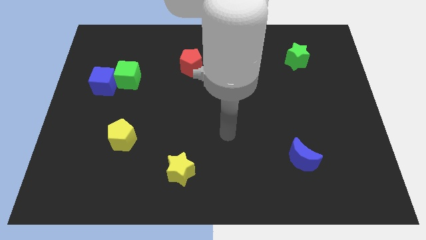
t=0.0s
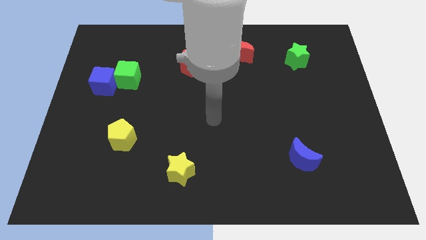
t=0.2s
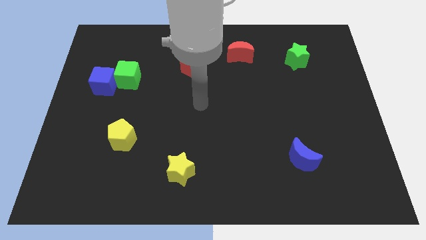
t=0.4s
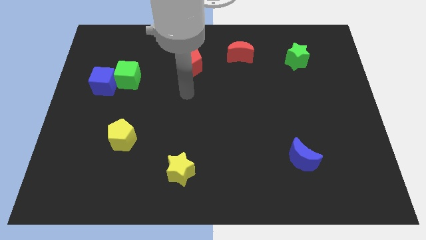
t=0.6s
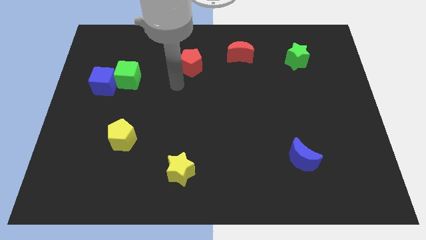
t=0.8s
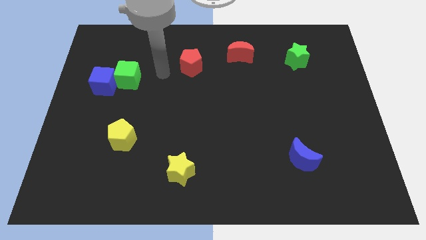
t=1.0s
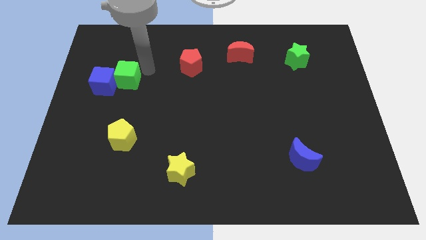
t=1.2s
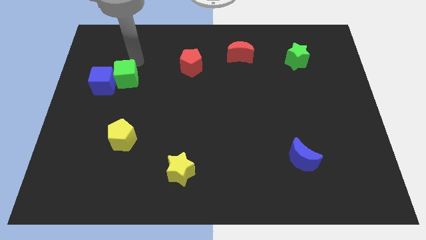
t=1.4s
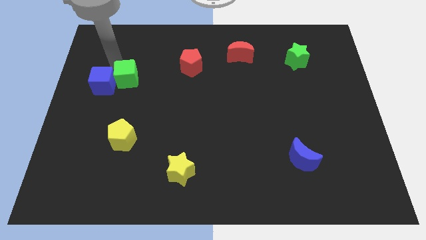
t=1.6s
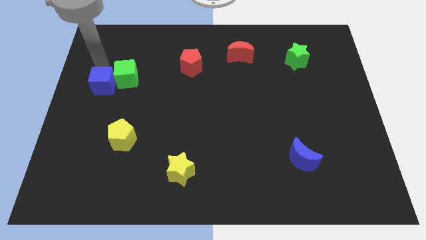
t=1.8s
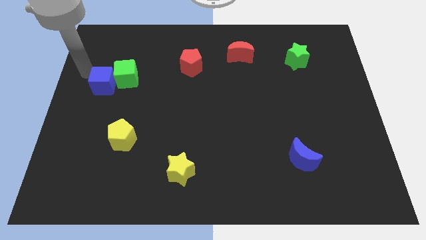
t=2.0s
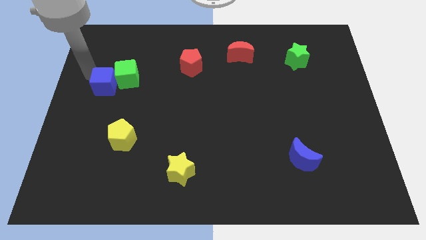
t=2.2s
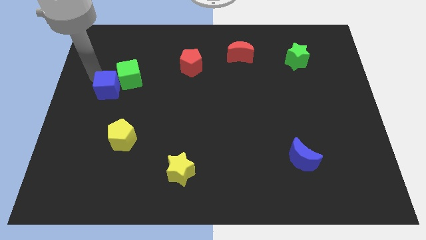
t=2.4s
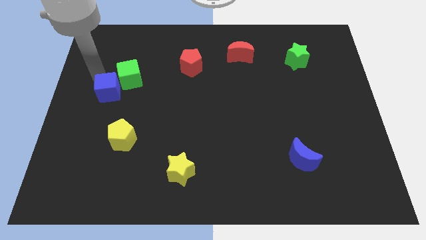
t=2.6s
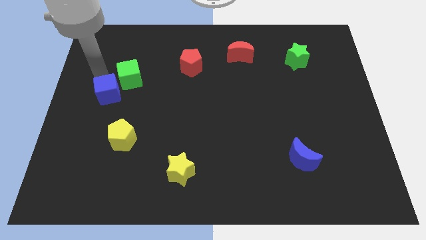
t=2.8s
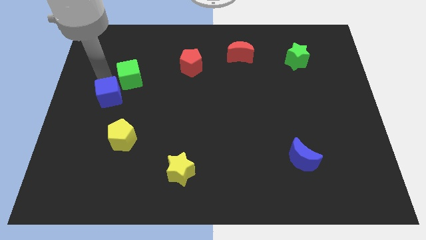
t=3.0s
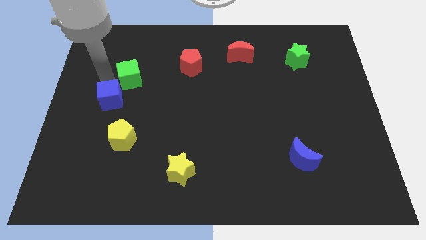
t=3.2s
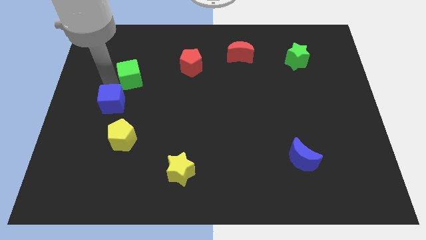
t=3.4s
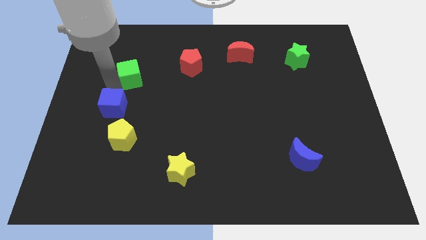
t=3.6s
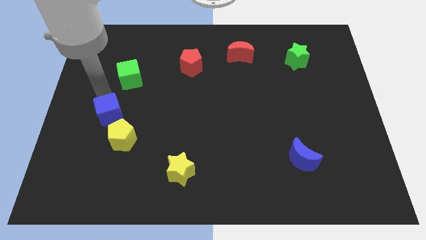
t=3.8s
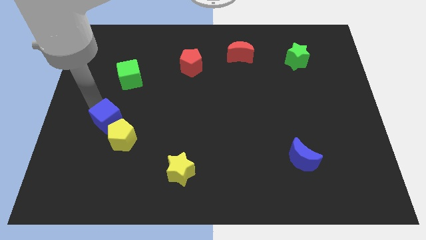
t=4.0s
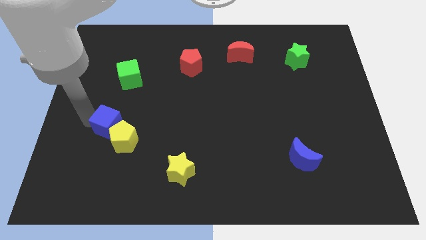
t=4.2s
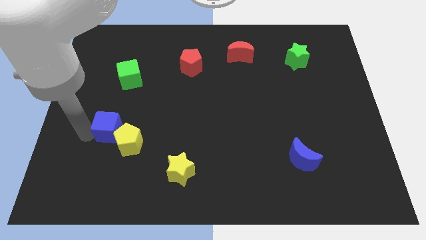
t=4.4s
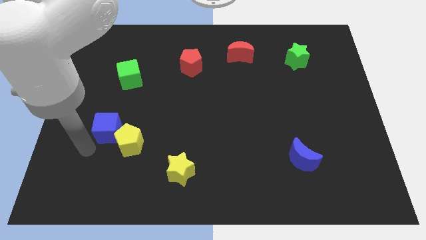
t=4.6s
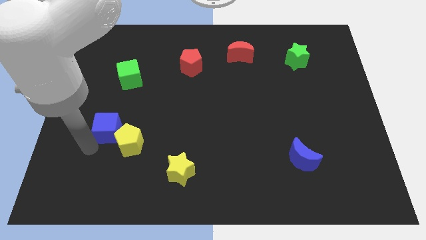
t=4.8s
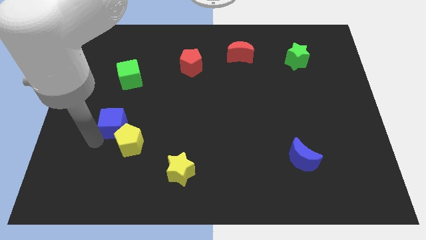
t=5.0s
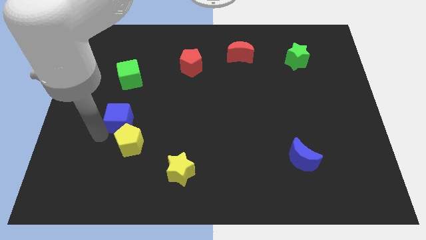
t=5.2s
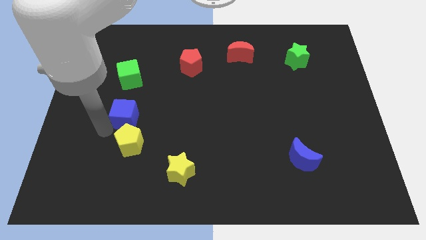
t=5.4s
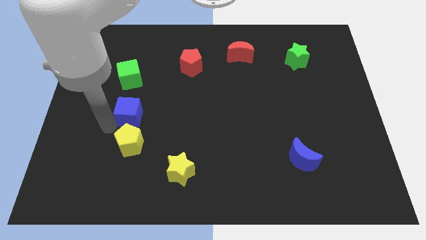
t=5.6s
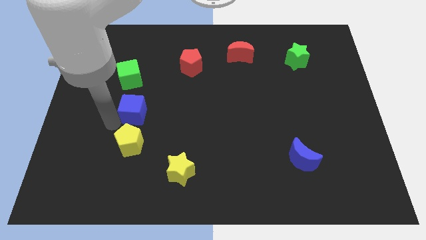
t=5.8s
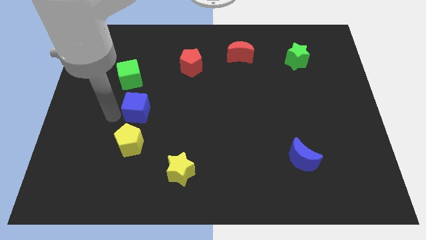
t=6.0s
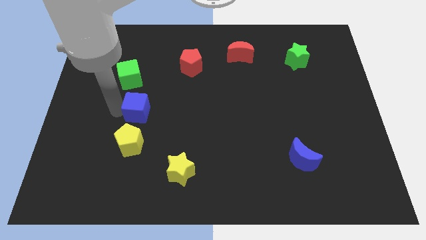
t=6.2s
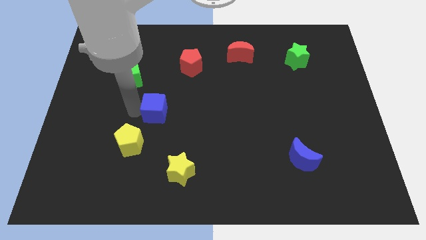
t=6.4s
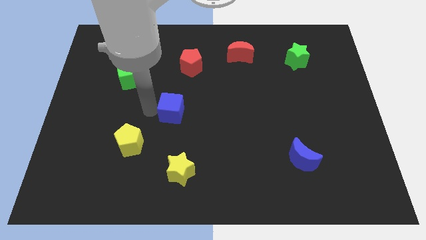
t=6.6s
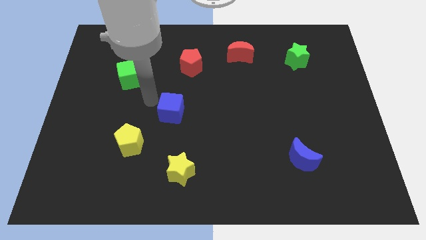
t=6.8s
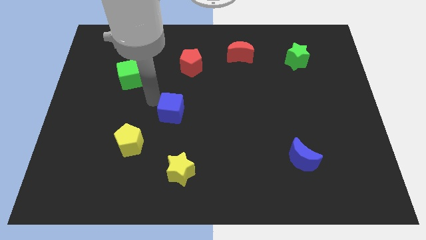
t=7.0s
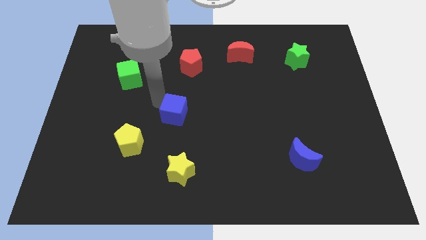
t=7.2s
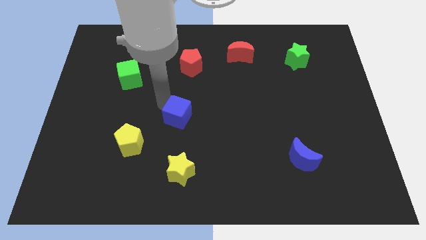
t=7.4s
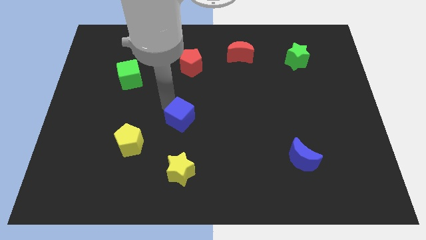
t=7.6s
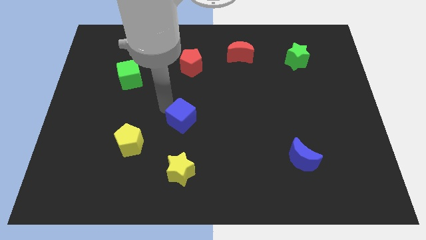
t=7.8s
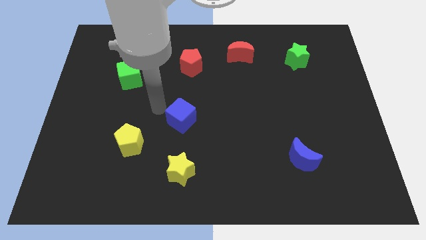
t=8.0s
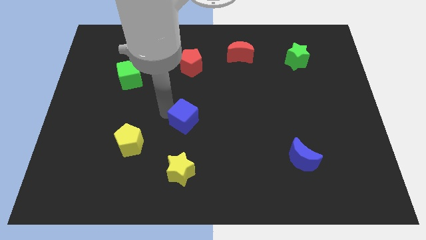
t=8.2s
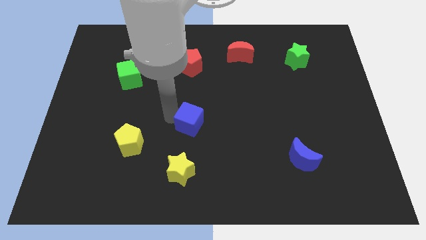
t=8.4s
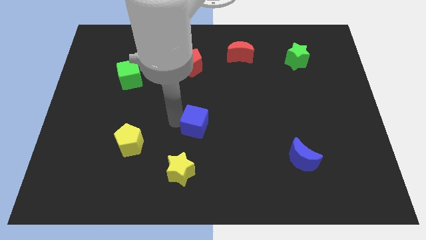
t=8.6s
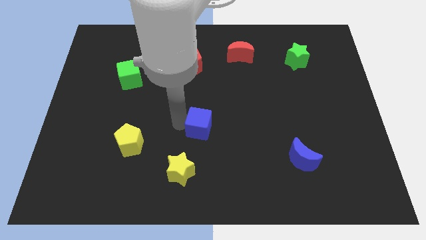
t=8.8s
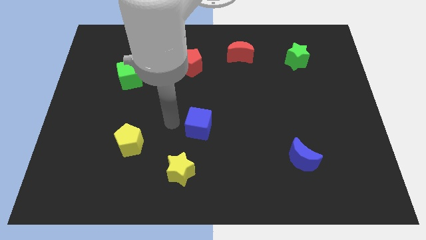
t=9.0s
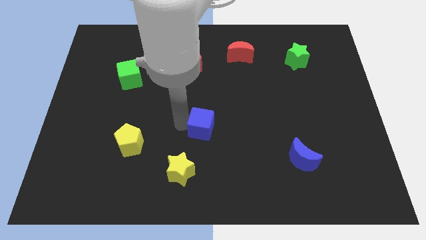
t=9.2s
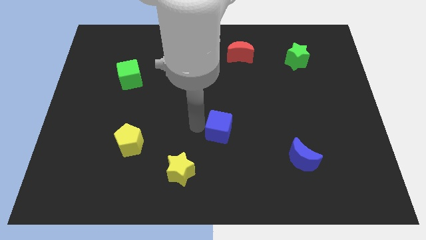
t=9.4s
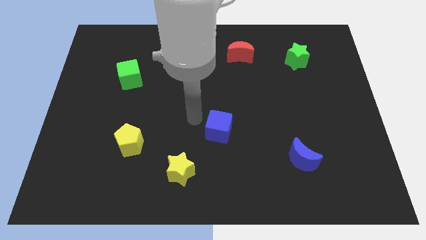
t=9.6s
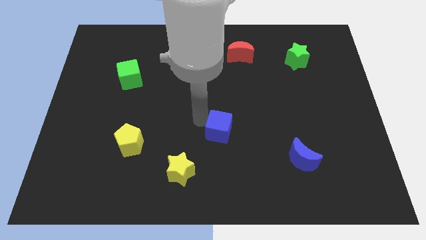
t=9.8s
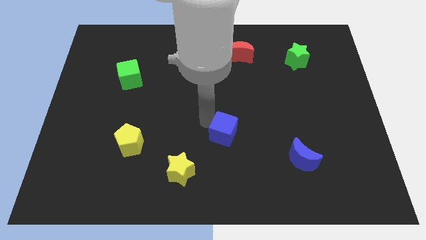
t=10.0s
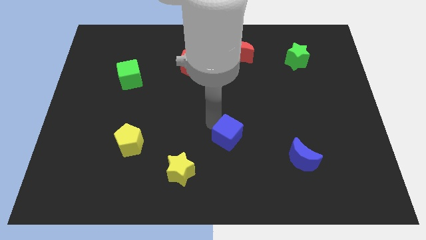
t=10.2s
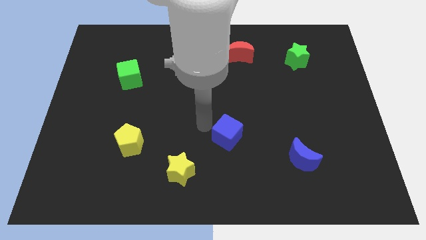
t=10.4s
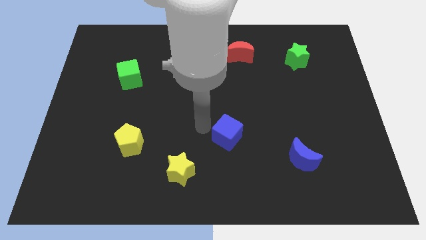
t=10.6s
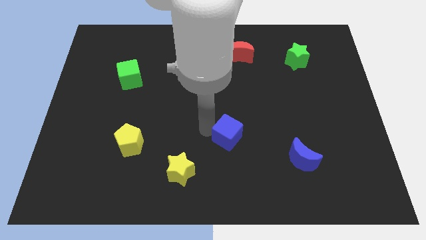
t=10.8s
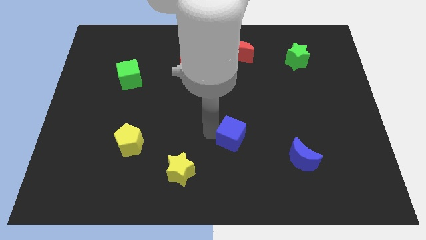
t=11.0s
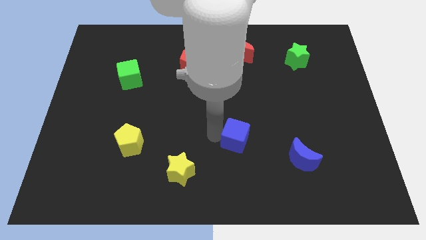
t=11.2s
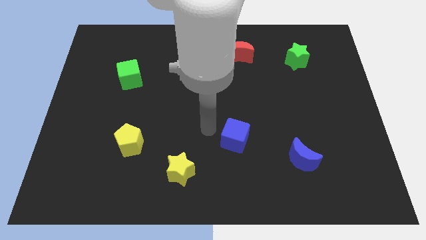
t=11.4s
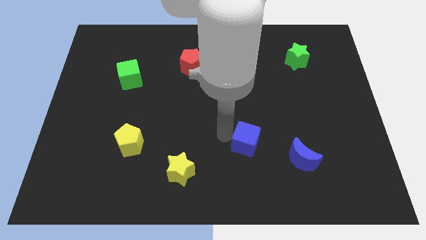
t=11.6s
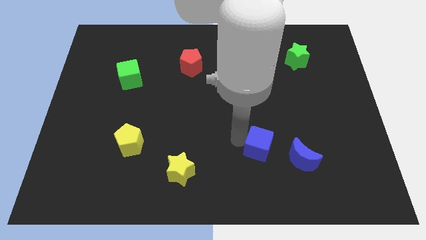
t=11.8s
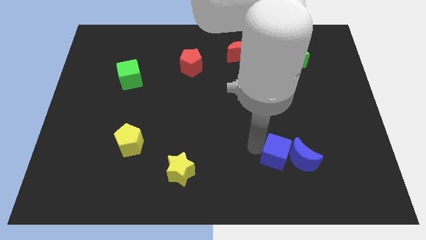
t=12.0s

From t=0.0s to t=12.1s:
move the blue cube close to the blue moon

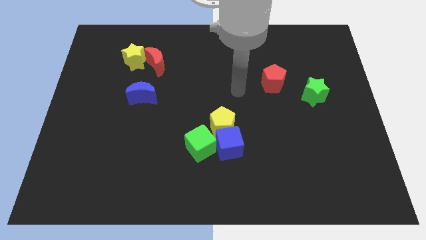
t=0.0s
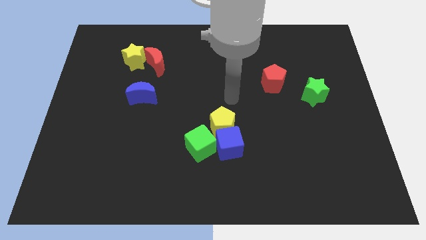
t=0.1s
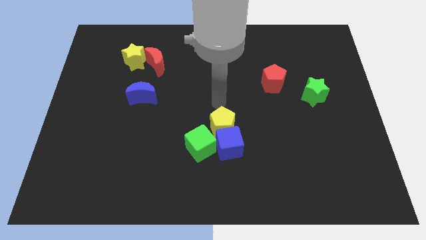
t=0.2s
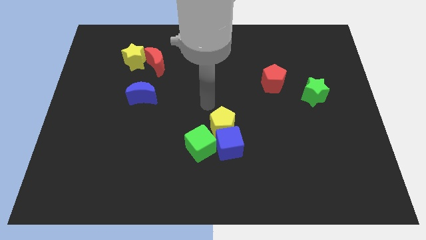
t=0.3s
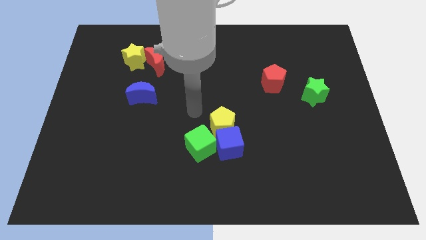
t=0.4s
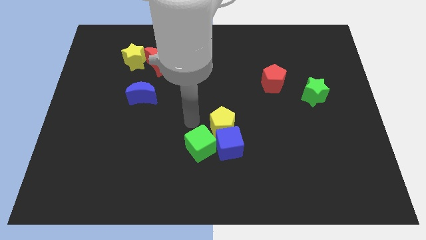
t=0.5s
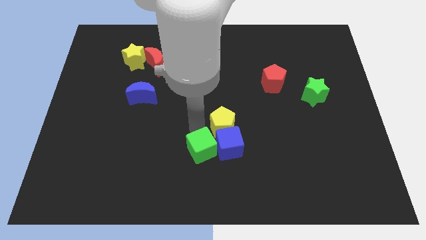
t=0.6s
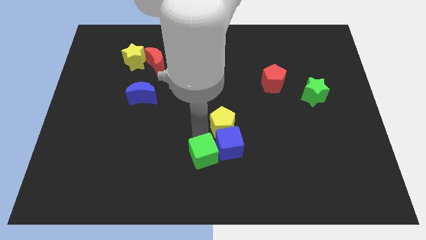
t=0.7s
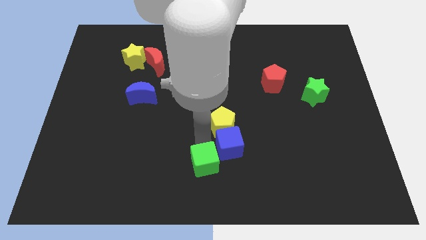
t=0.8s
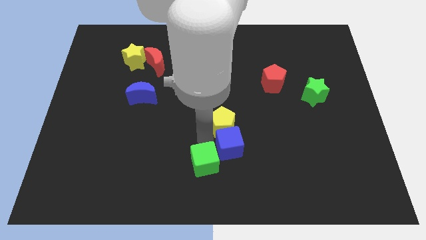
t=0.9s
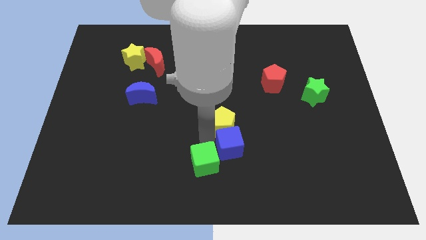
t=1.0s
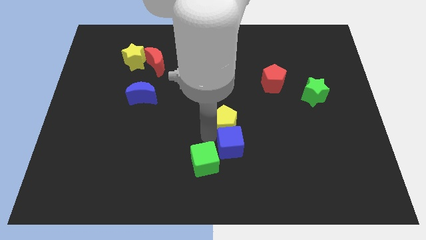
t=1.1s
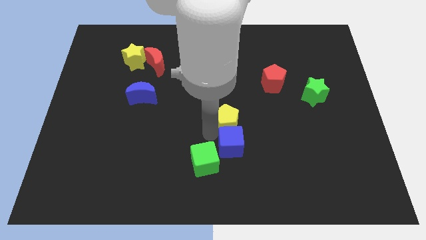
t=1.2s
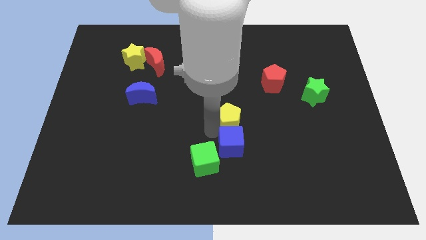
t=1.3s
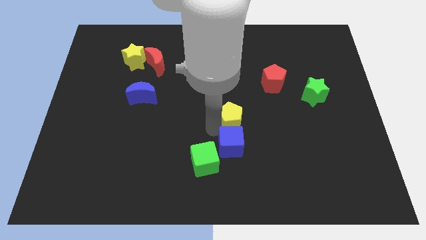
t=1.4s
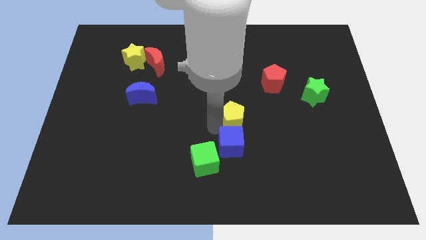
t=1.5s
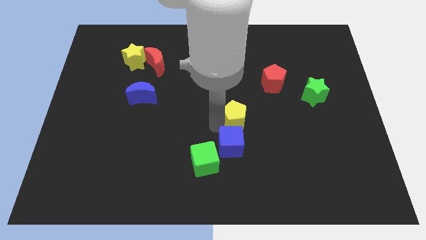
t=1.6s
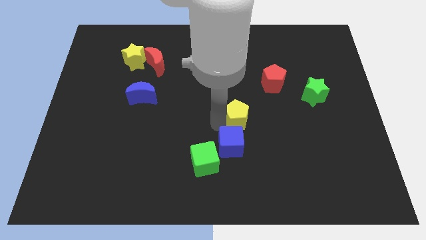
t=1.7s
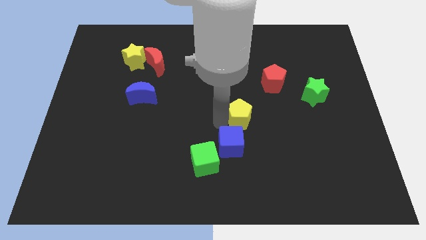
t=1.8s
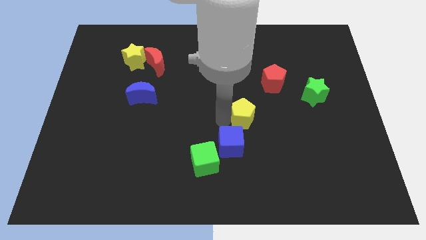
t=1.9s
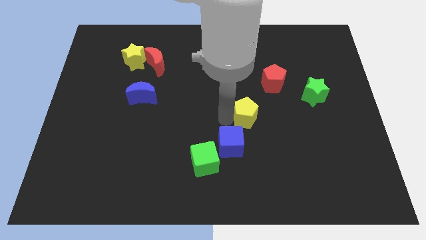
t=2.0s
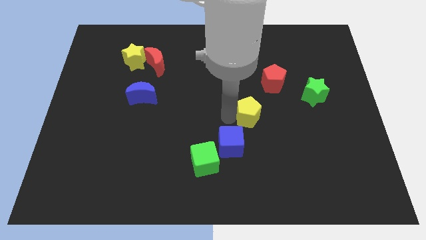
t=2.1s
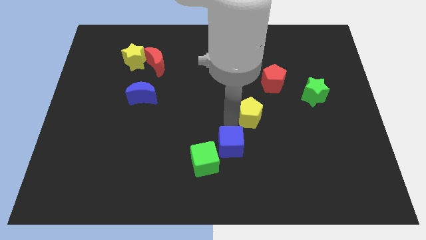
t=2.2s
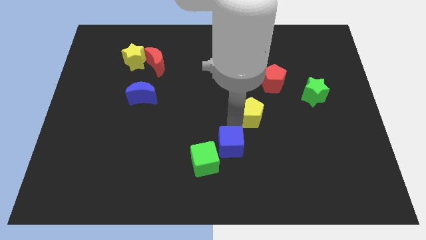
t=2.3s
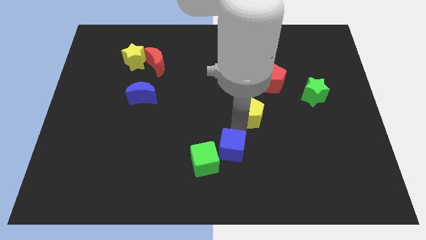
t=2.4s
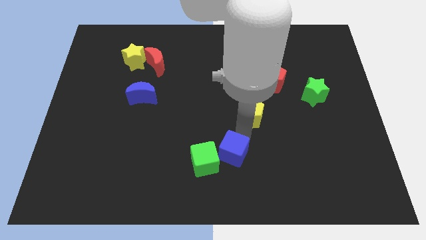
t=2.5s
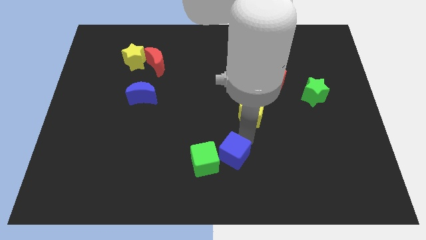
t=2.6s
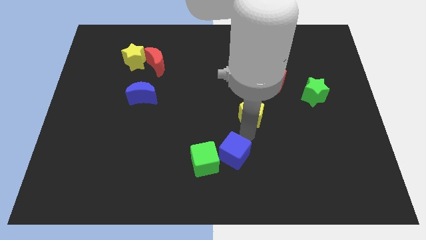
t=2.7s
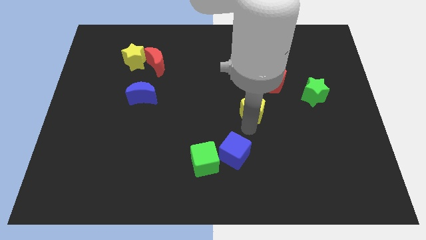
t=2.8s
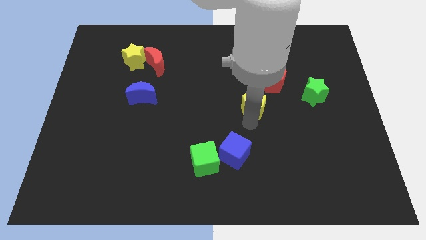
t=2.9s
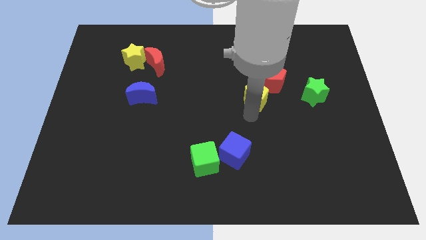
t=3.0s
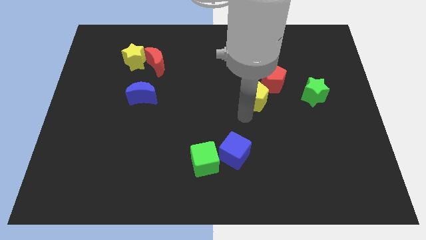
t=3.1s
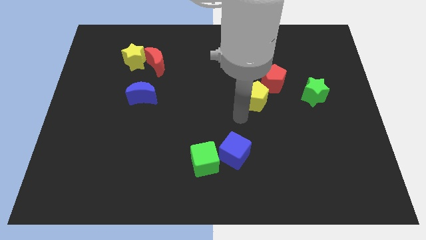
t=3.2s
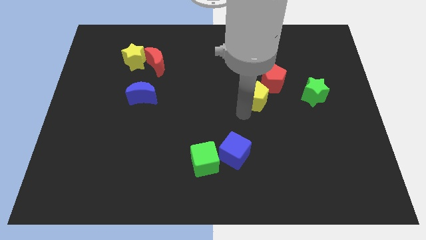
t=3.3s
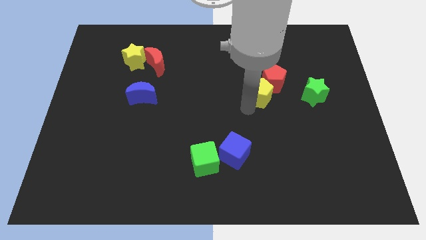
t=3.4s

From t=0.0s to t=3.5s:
put the yellow pentagon next to the red pentagon
